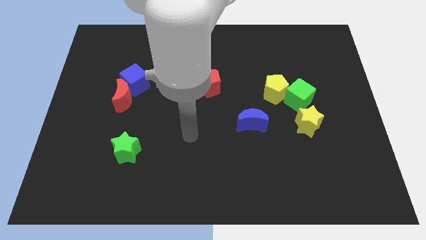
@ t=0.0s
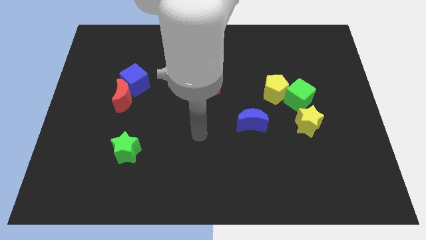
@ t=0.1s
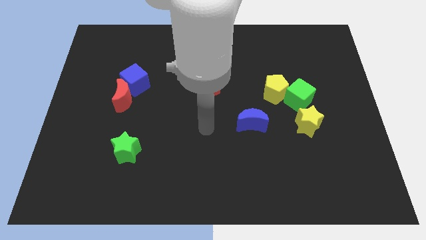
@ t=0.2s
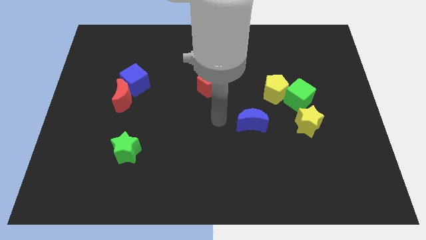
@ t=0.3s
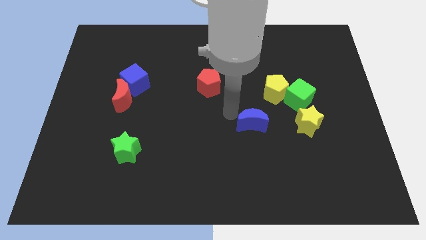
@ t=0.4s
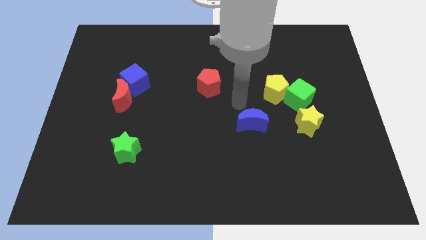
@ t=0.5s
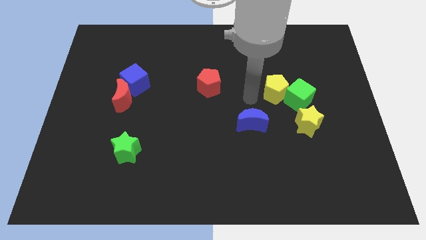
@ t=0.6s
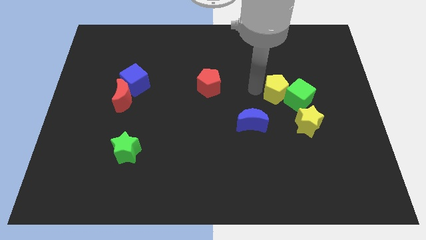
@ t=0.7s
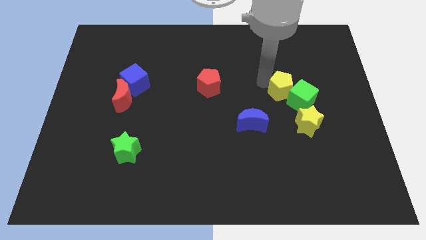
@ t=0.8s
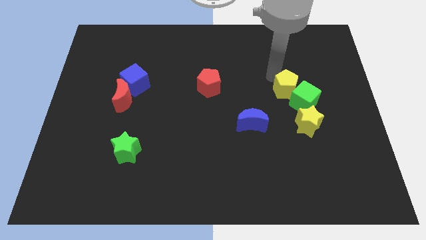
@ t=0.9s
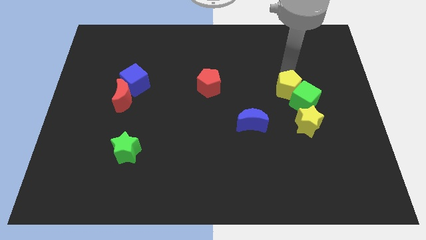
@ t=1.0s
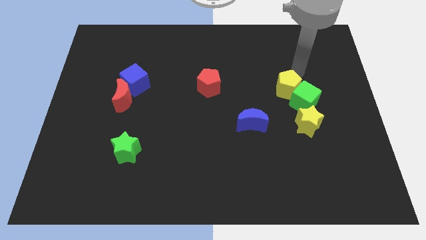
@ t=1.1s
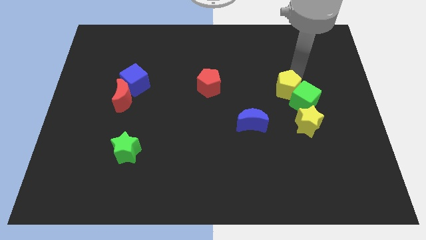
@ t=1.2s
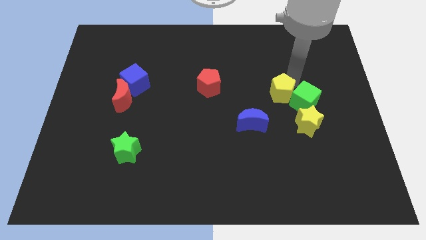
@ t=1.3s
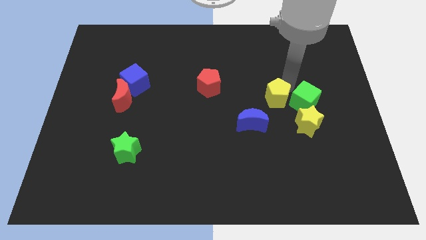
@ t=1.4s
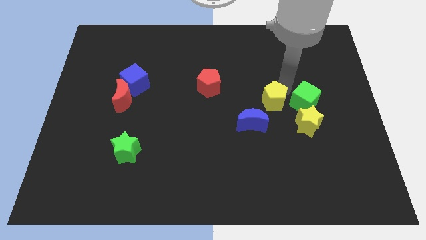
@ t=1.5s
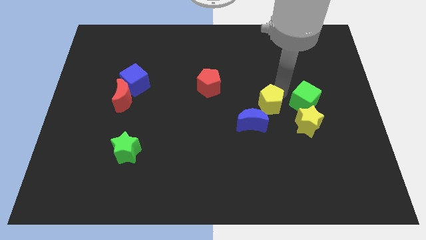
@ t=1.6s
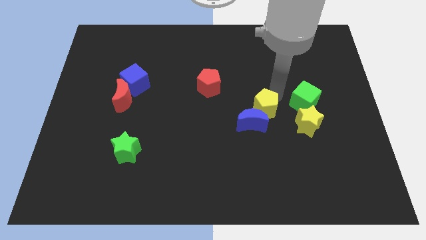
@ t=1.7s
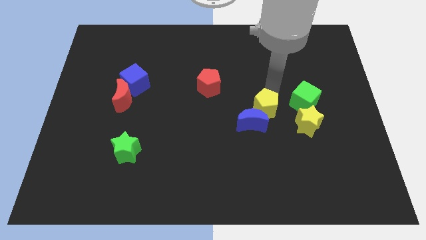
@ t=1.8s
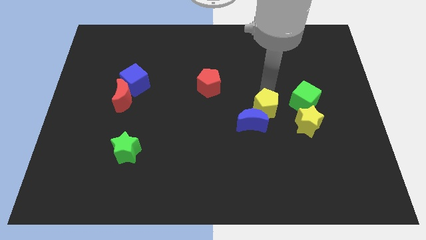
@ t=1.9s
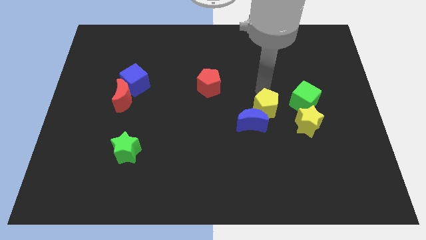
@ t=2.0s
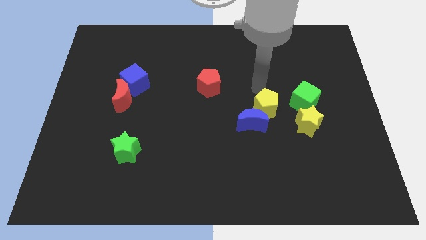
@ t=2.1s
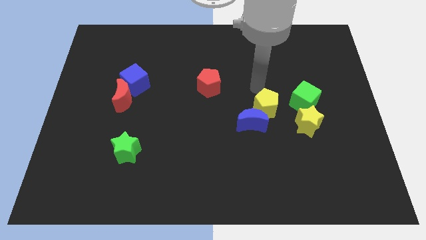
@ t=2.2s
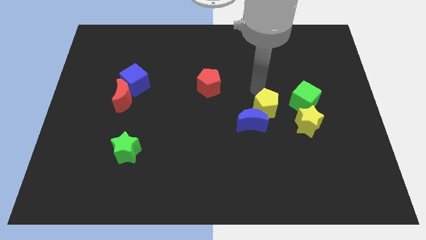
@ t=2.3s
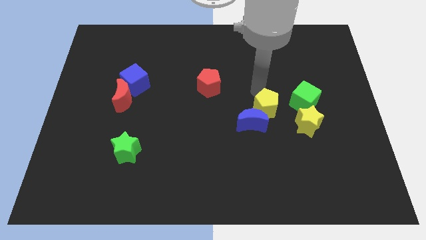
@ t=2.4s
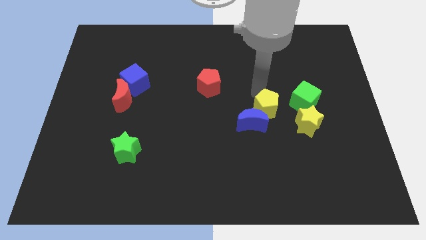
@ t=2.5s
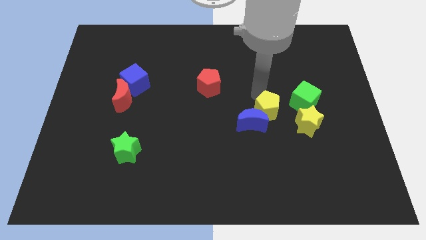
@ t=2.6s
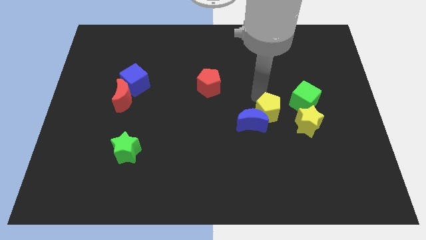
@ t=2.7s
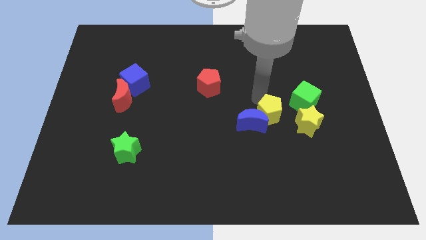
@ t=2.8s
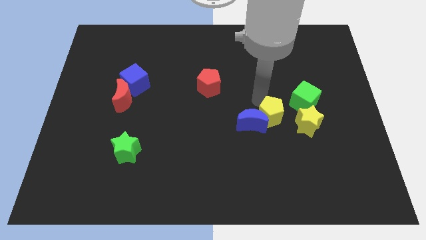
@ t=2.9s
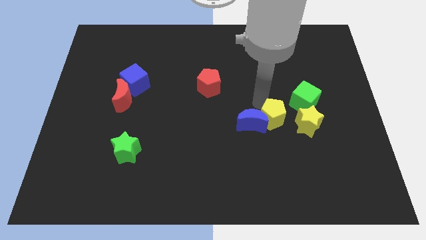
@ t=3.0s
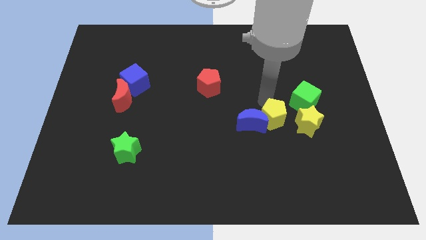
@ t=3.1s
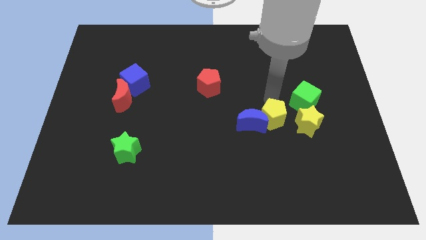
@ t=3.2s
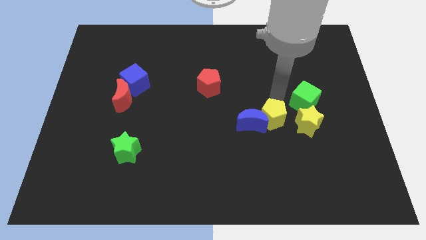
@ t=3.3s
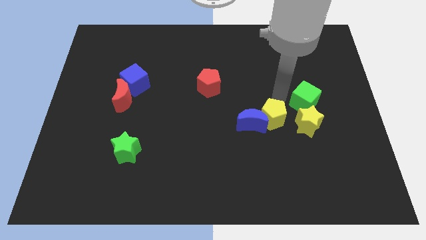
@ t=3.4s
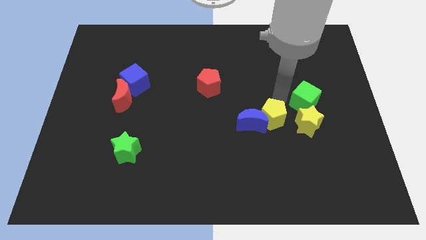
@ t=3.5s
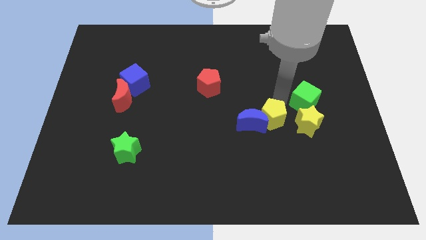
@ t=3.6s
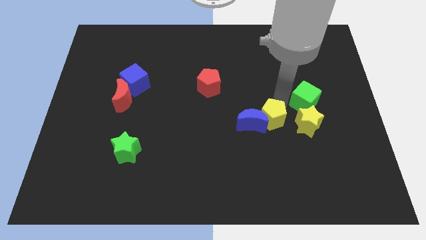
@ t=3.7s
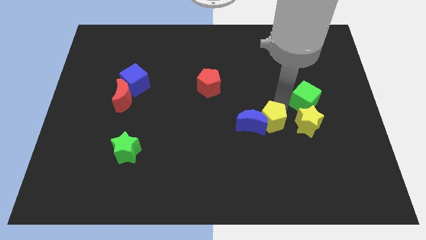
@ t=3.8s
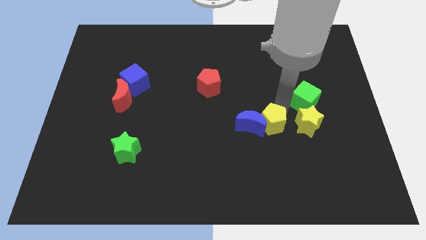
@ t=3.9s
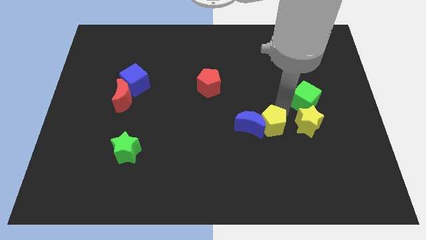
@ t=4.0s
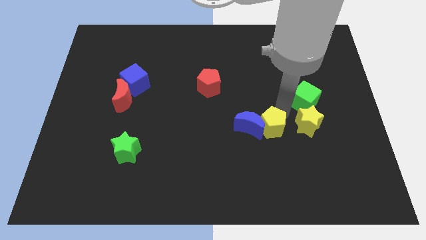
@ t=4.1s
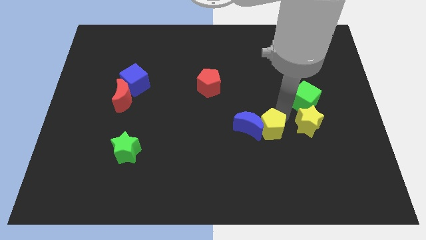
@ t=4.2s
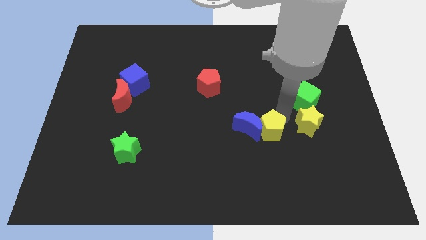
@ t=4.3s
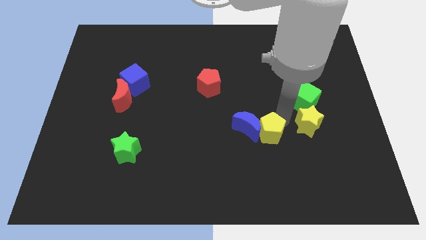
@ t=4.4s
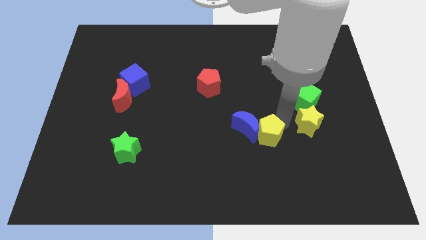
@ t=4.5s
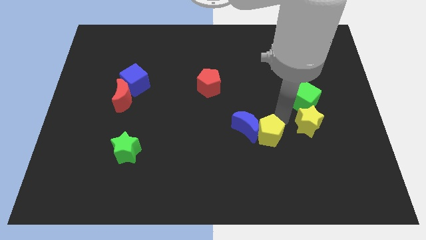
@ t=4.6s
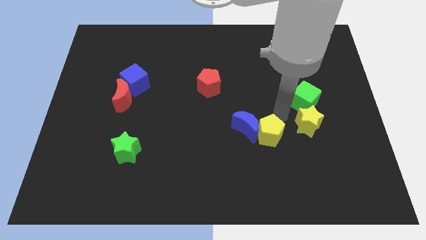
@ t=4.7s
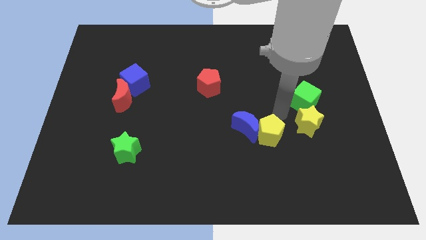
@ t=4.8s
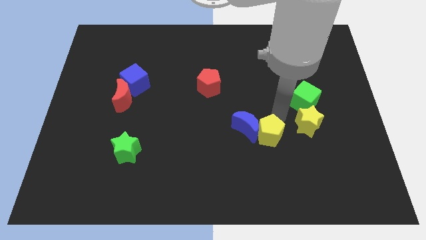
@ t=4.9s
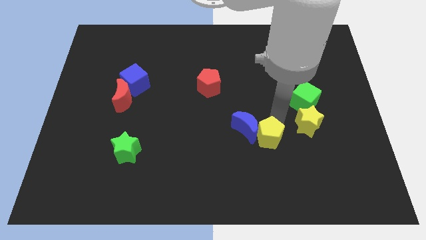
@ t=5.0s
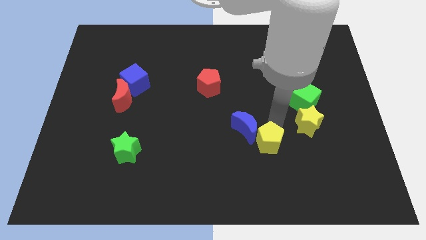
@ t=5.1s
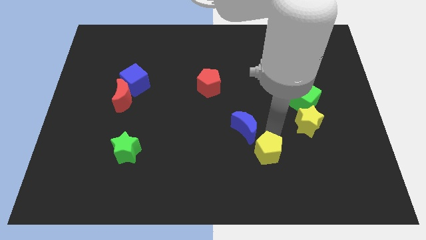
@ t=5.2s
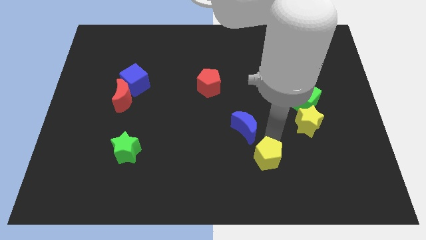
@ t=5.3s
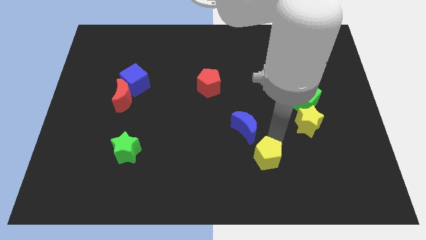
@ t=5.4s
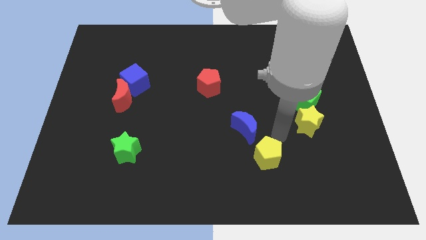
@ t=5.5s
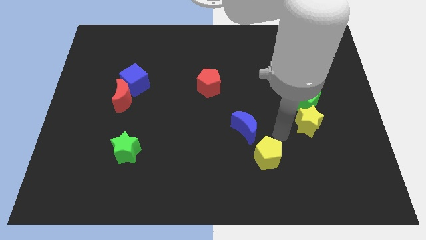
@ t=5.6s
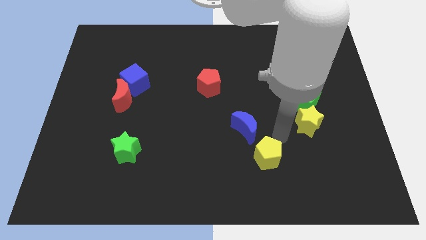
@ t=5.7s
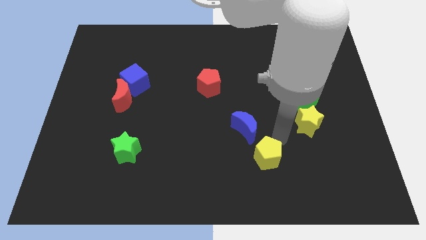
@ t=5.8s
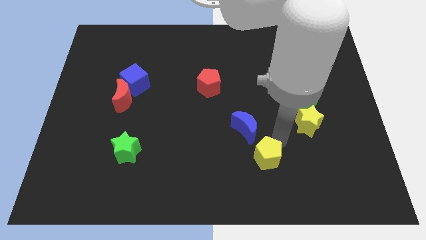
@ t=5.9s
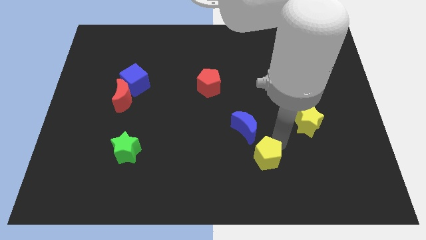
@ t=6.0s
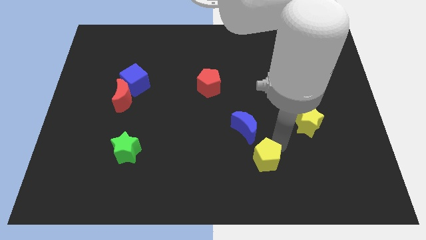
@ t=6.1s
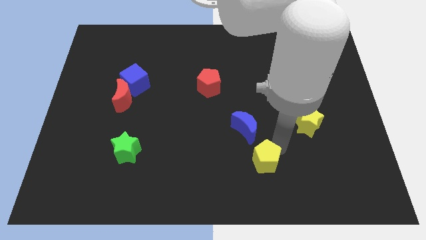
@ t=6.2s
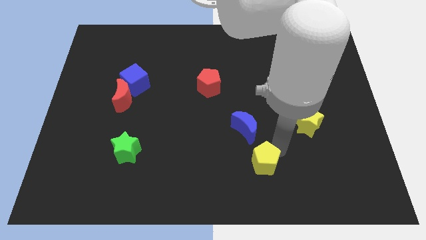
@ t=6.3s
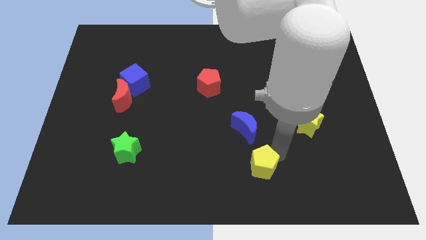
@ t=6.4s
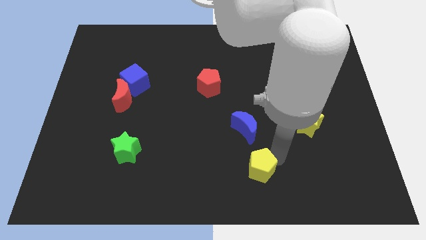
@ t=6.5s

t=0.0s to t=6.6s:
put the yellow pentagon to the bottom

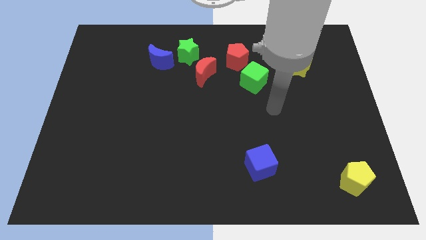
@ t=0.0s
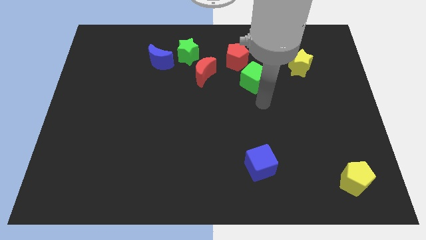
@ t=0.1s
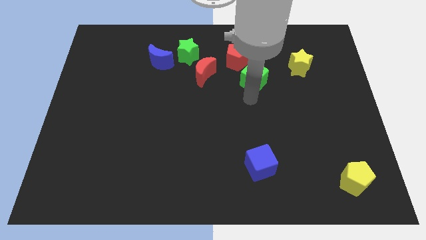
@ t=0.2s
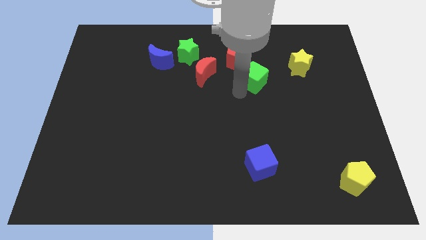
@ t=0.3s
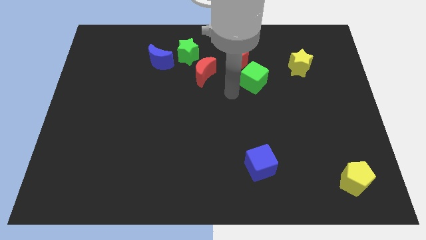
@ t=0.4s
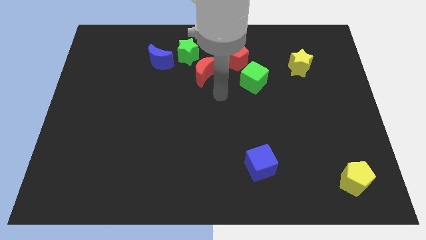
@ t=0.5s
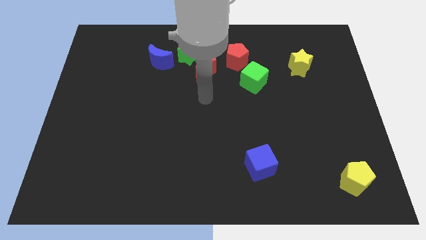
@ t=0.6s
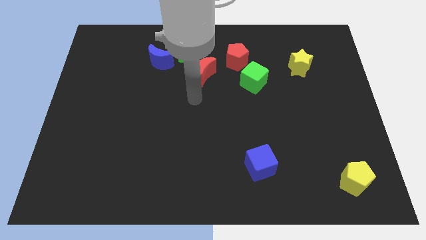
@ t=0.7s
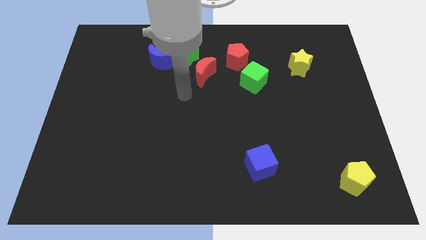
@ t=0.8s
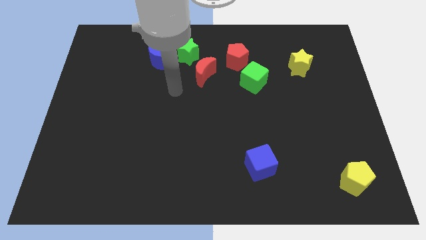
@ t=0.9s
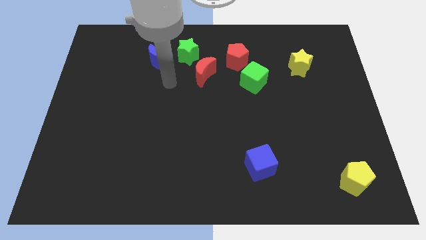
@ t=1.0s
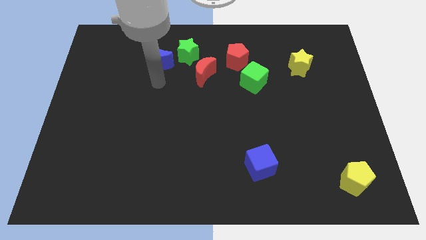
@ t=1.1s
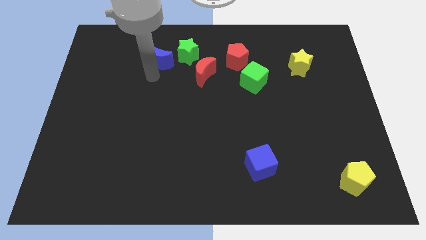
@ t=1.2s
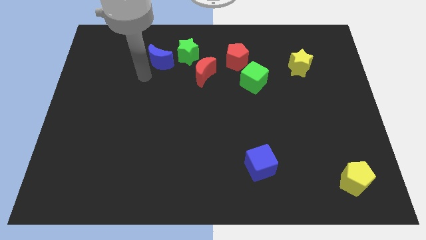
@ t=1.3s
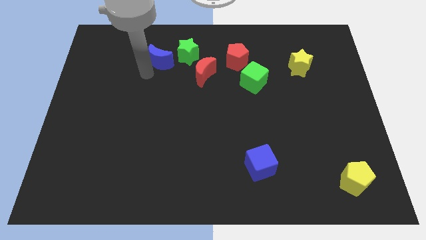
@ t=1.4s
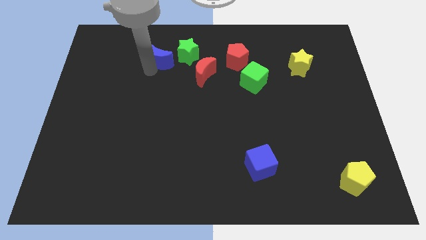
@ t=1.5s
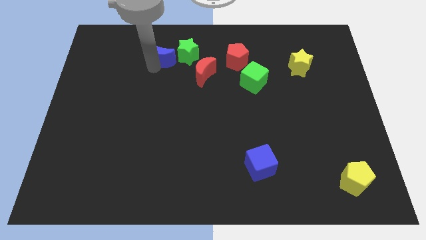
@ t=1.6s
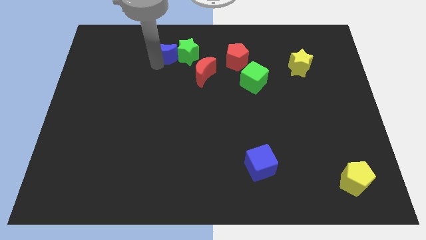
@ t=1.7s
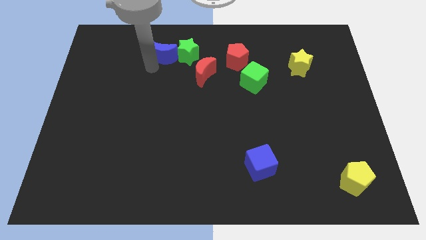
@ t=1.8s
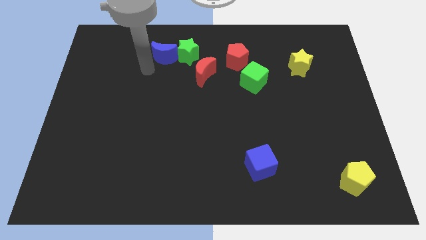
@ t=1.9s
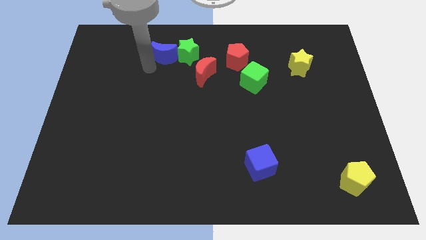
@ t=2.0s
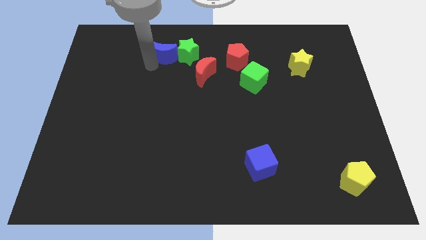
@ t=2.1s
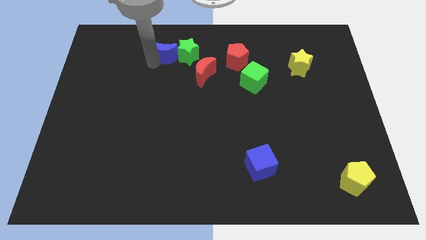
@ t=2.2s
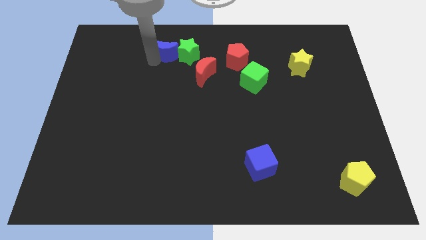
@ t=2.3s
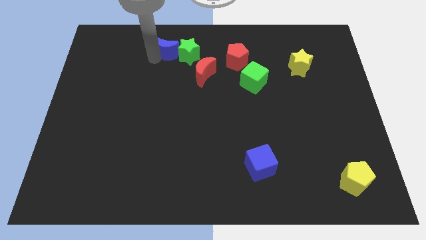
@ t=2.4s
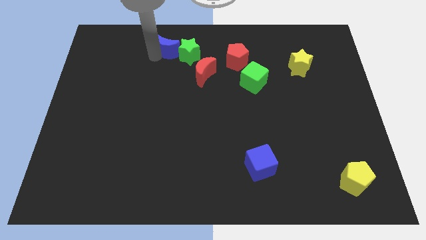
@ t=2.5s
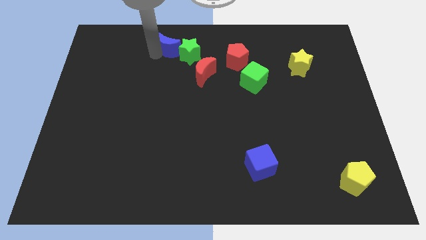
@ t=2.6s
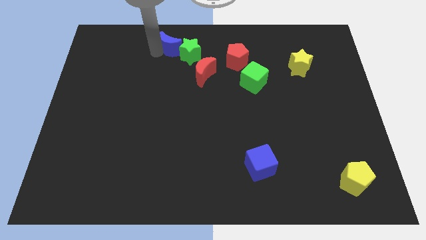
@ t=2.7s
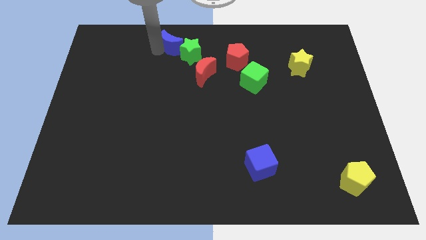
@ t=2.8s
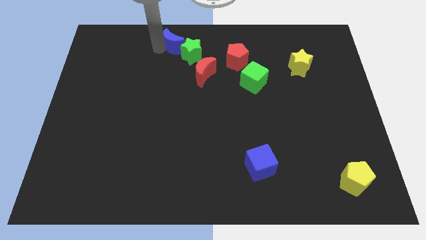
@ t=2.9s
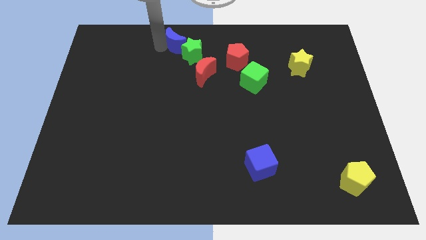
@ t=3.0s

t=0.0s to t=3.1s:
slide the blue moon to the top
